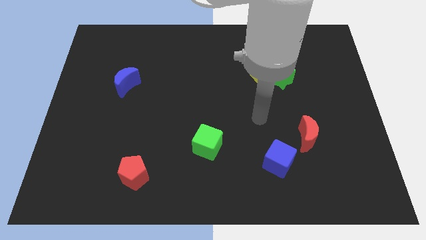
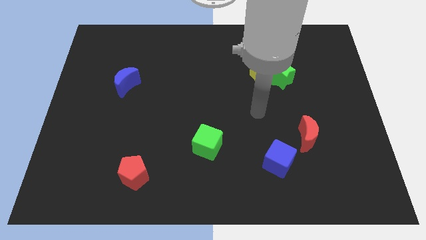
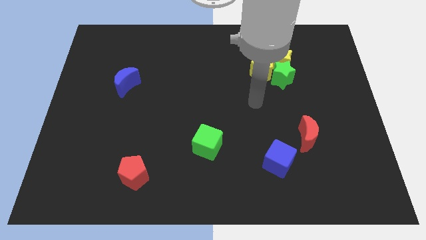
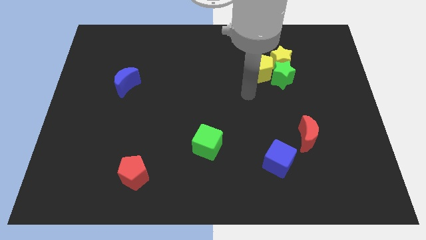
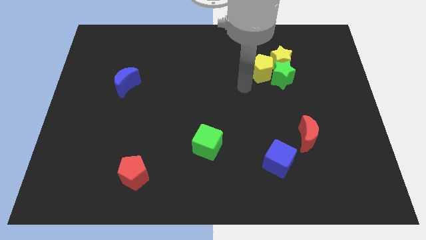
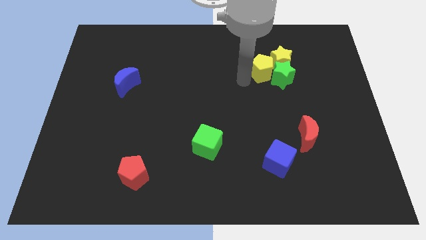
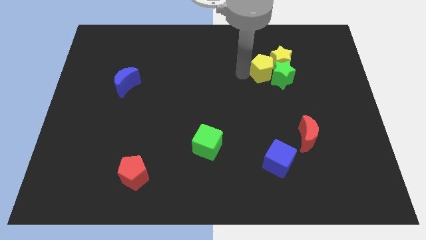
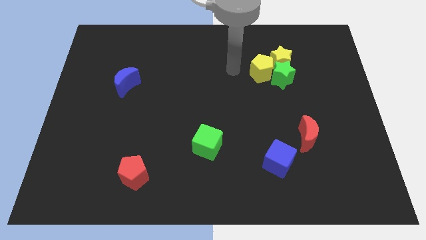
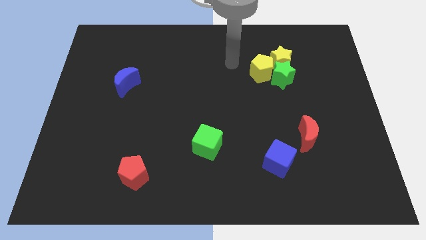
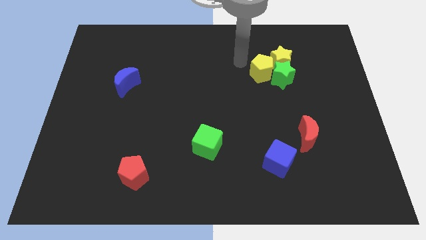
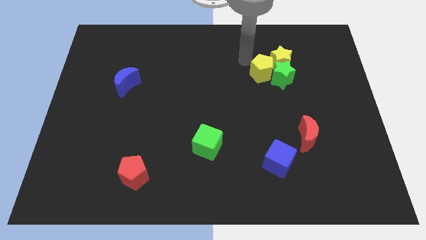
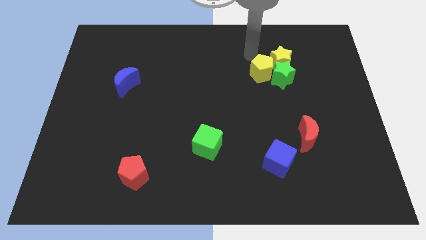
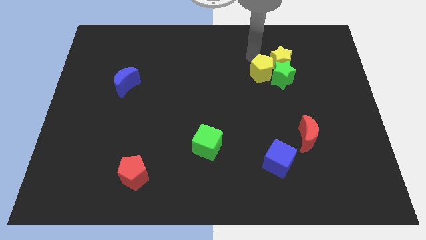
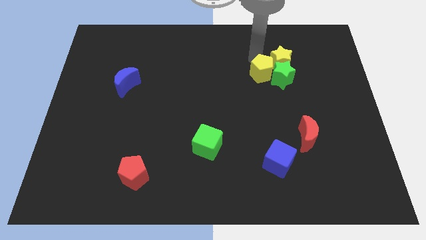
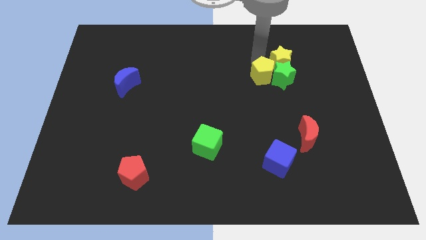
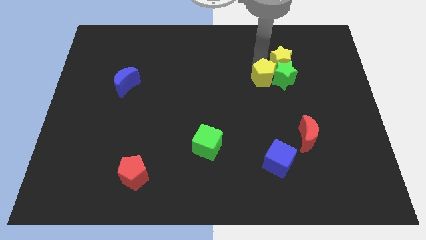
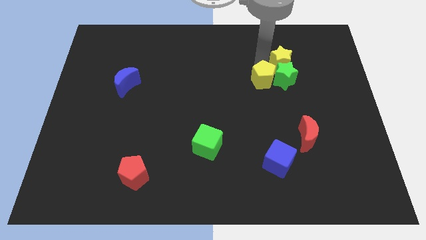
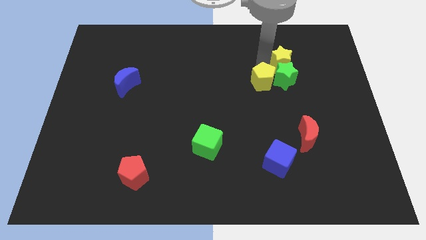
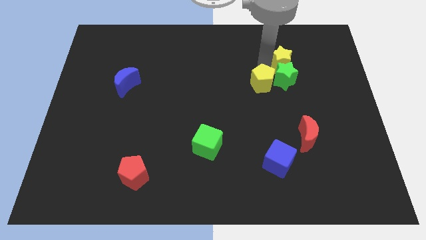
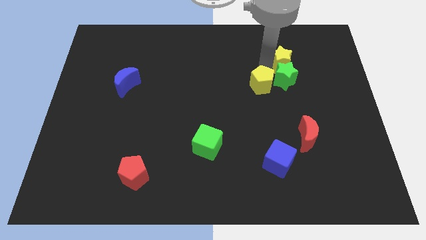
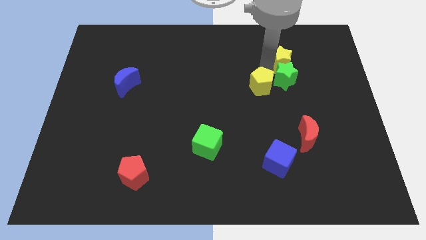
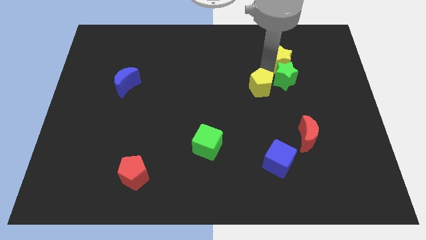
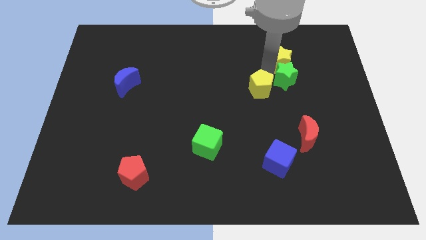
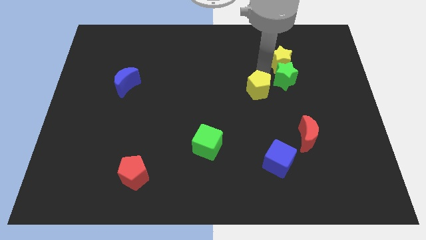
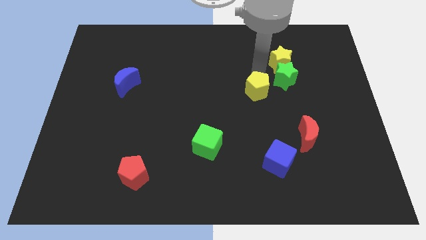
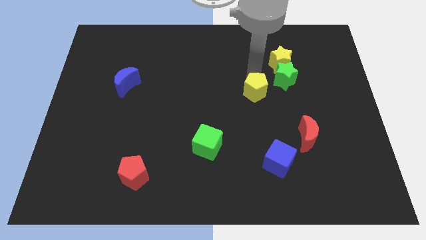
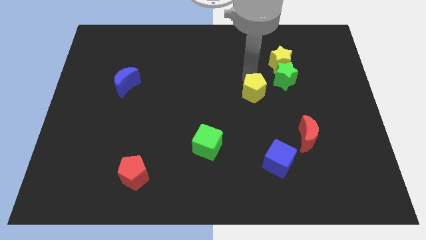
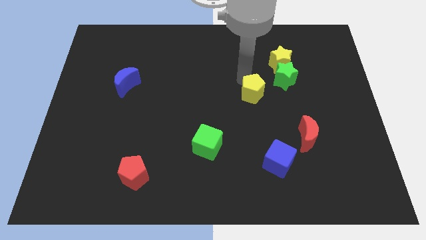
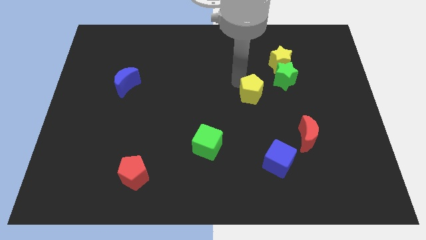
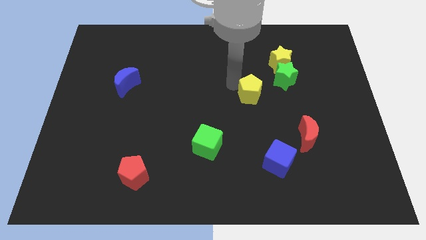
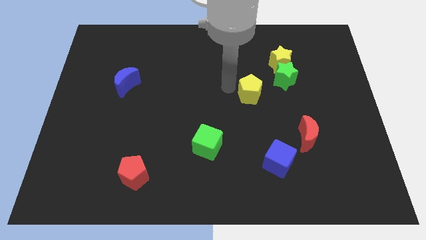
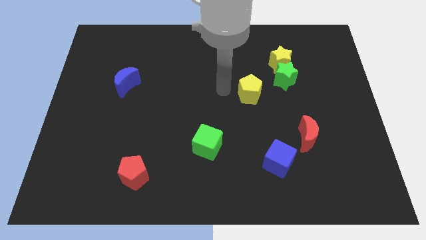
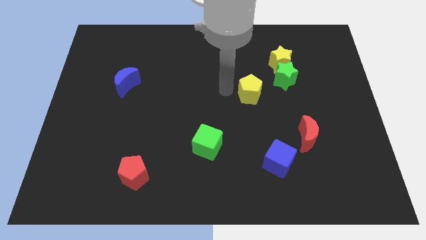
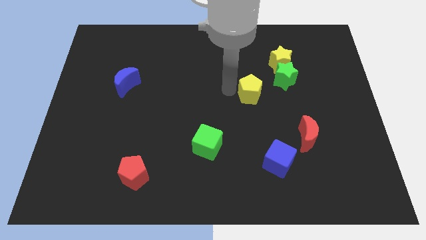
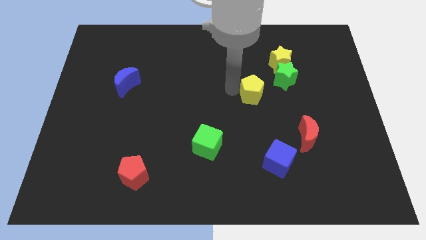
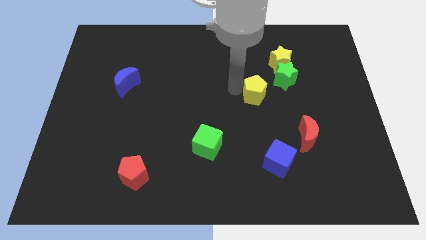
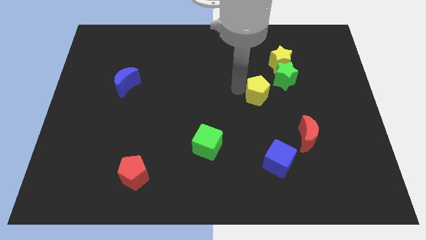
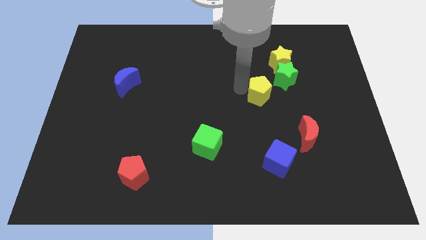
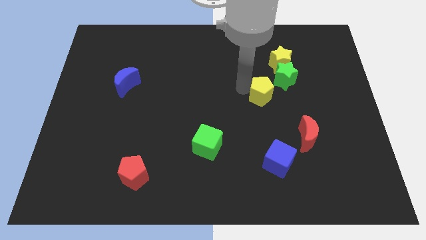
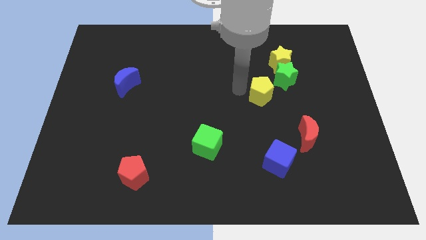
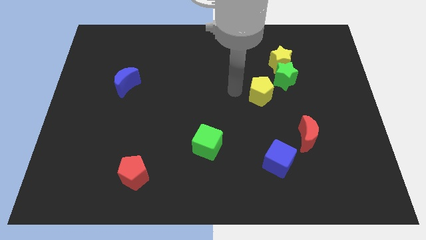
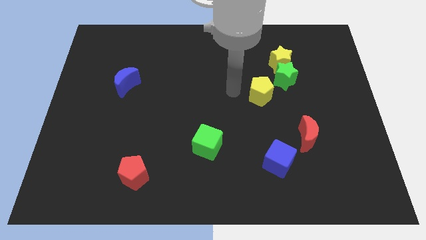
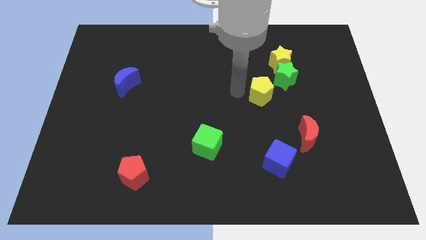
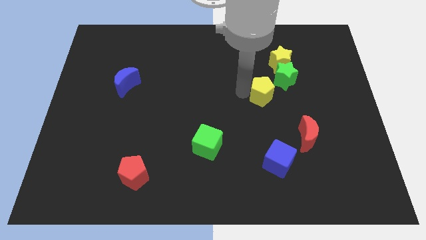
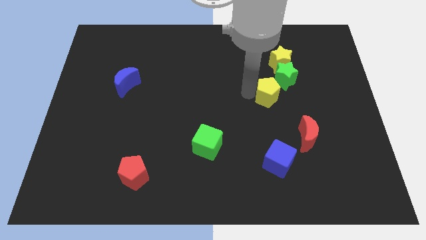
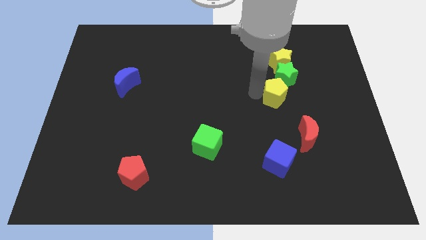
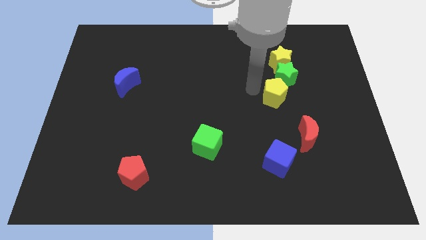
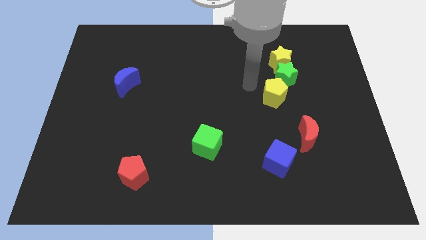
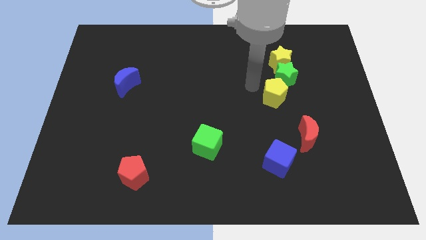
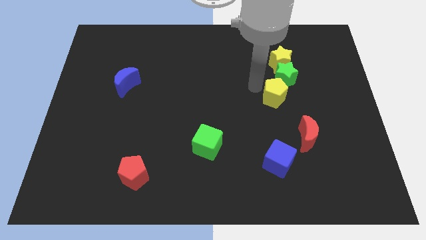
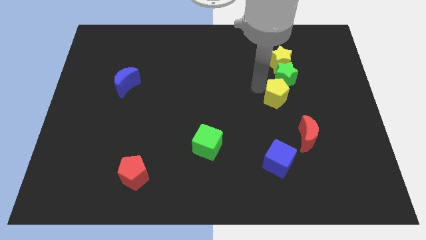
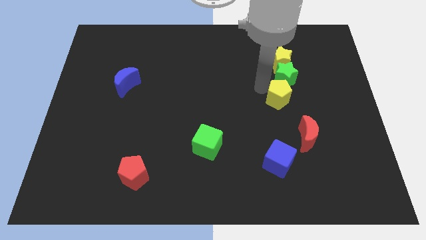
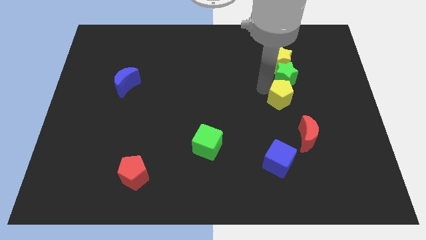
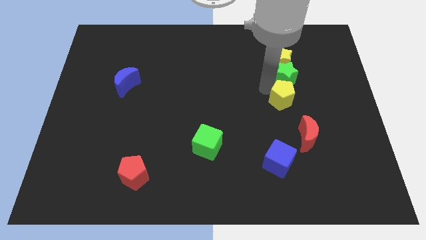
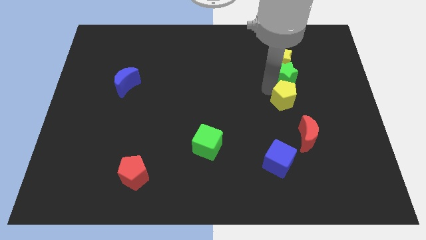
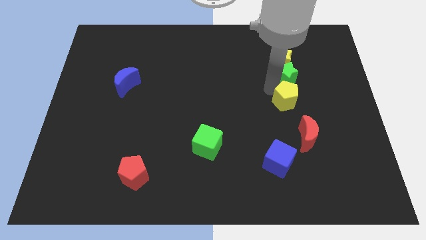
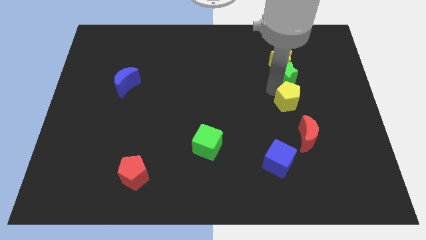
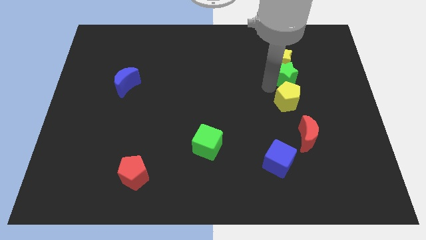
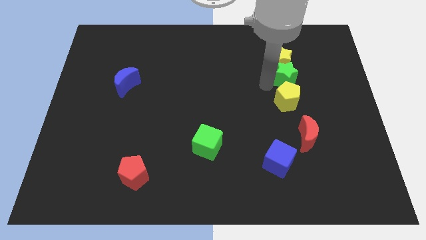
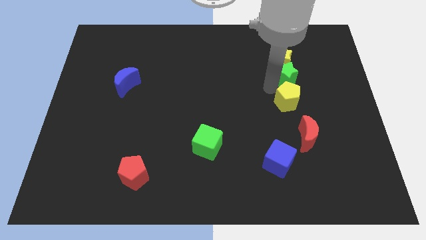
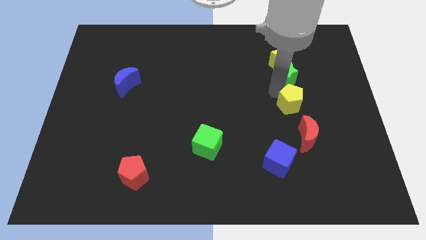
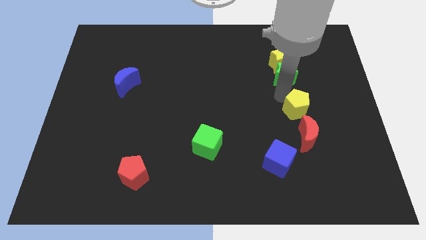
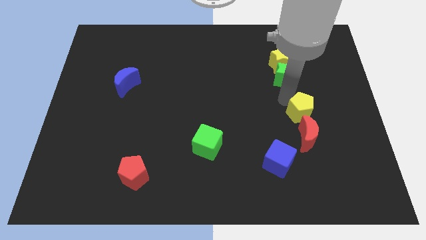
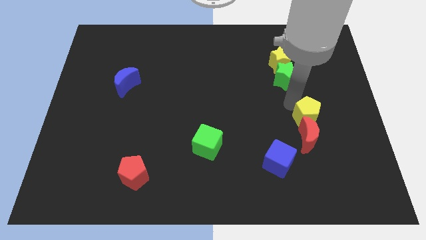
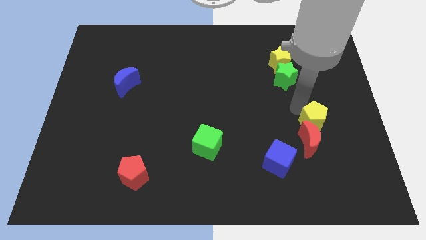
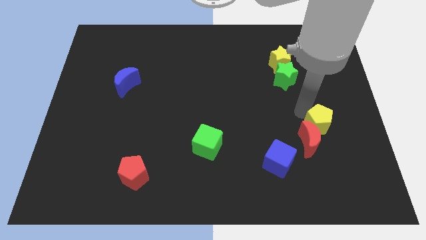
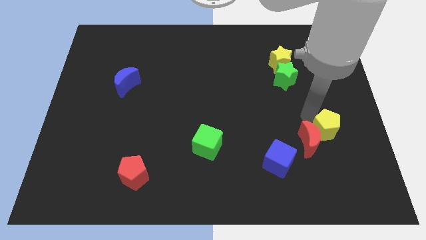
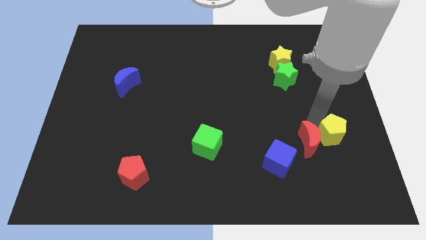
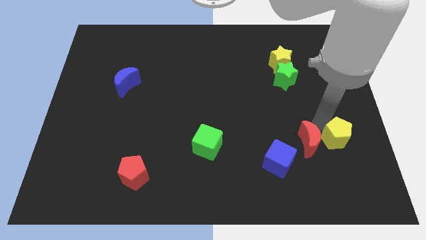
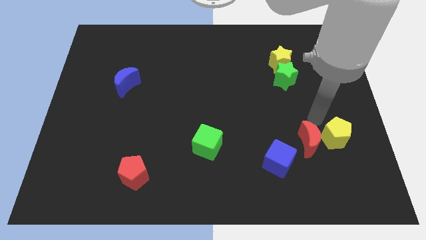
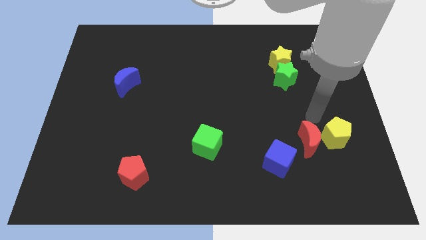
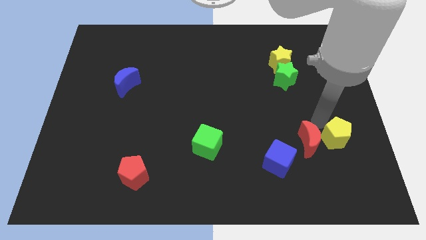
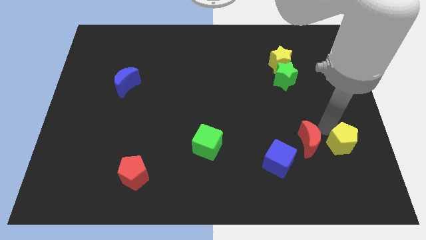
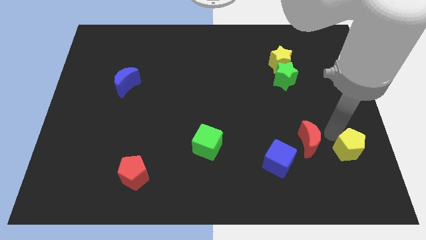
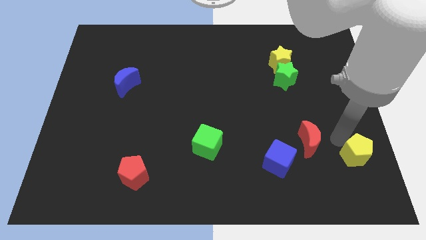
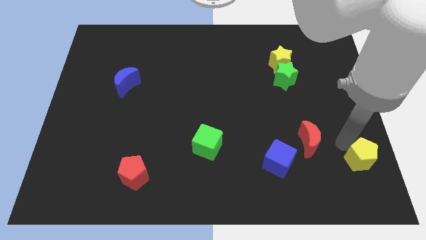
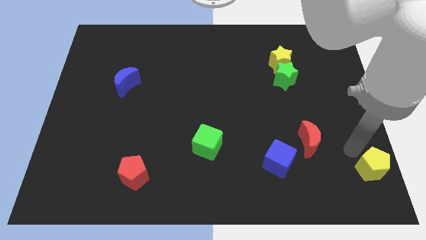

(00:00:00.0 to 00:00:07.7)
put the yellow pentagon to the lower right corner

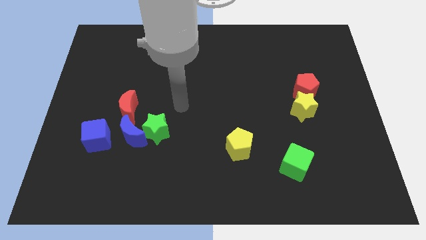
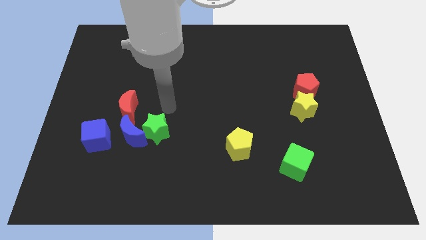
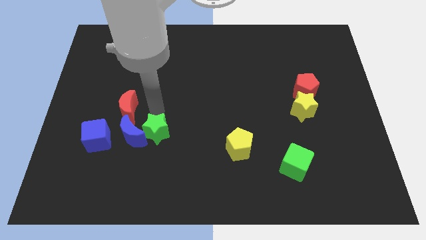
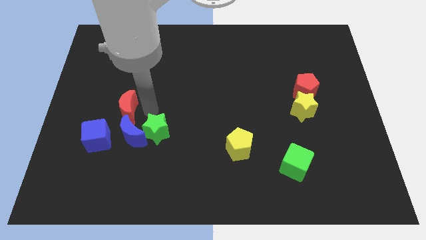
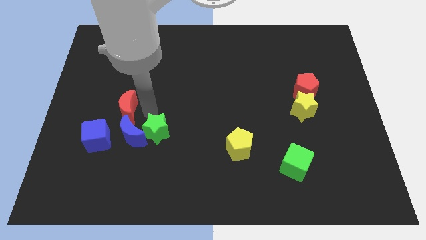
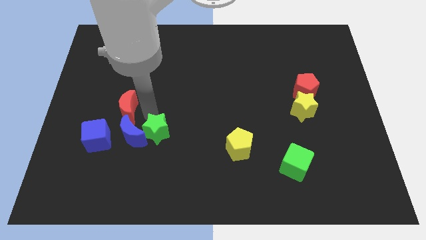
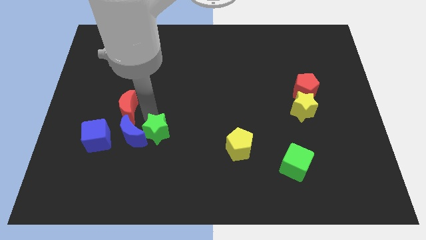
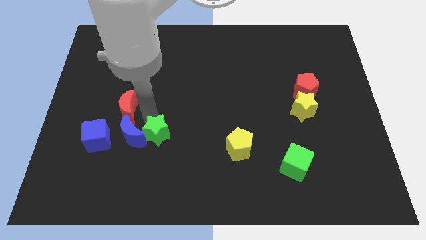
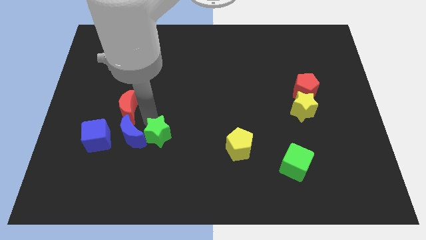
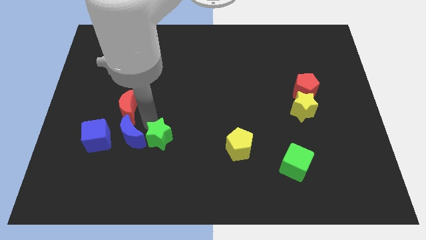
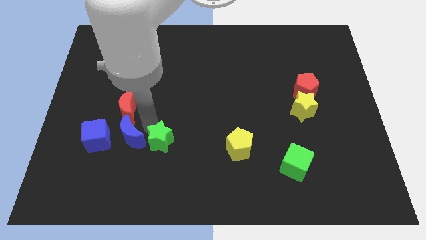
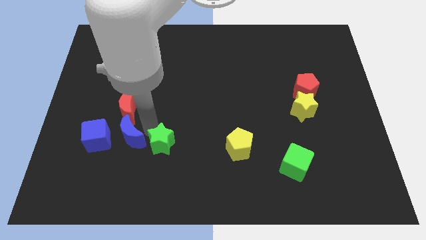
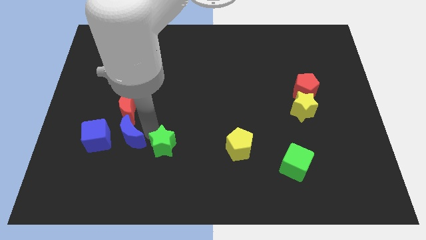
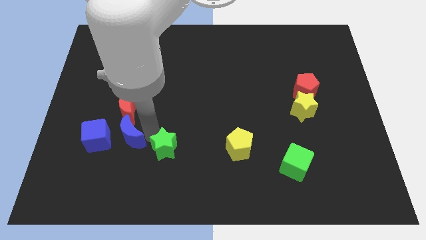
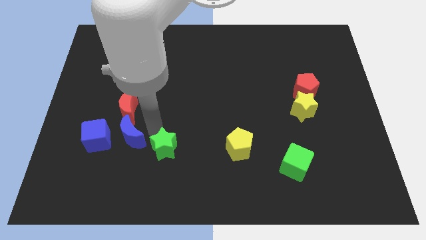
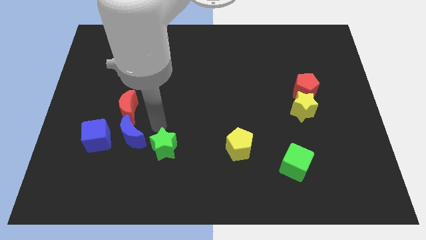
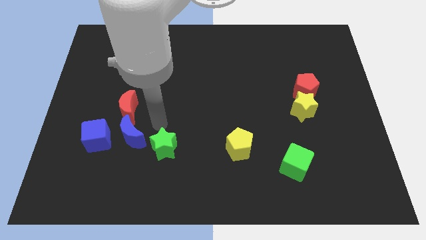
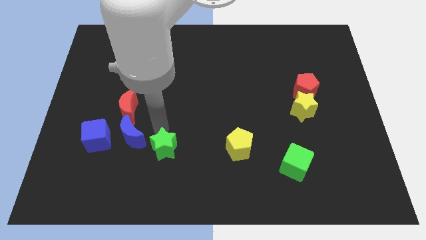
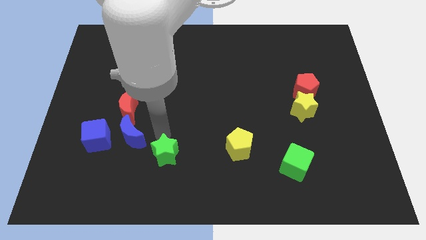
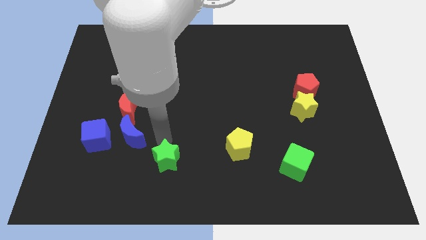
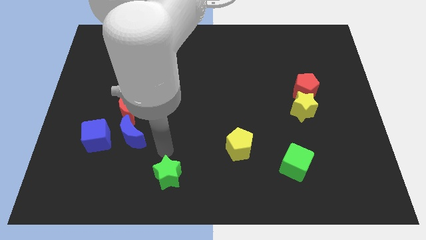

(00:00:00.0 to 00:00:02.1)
push the green star to the bottom side
